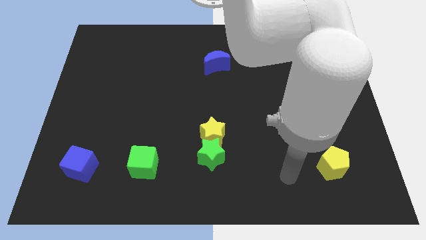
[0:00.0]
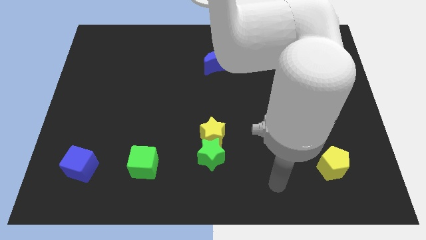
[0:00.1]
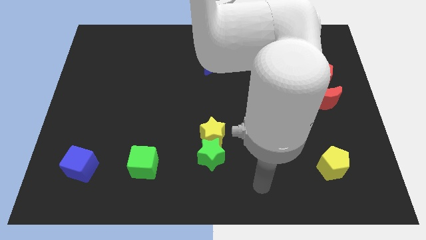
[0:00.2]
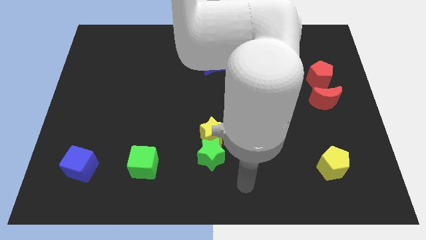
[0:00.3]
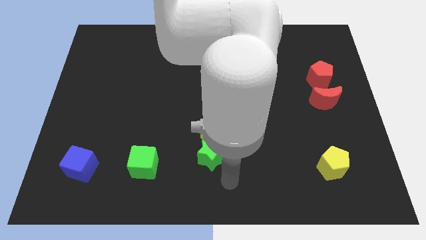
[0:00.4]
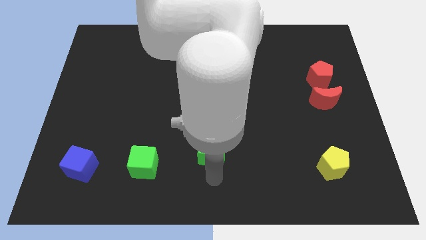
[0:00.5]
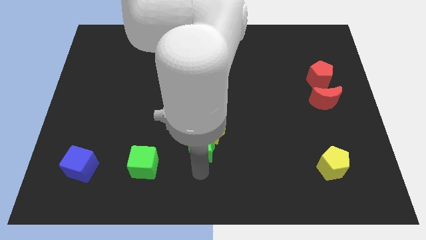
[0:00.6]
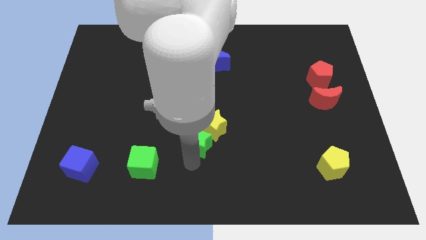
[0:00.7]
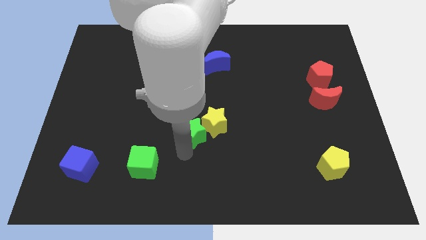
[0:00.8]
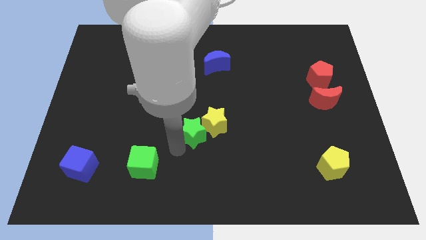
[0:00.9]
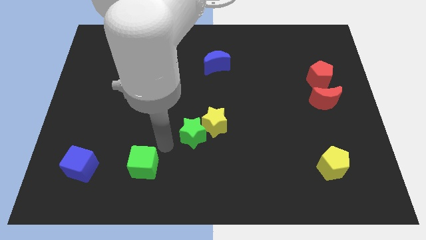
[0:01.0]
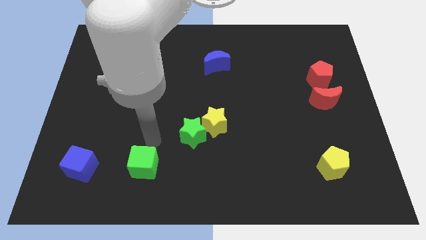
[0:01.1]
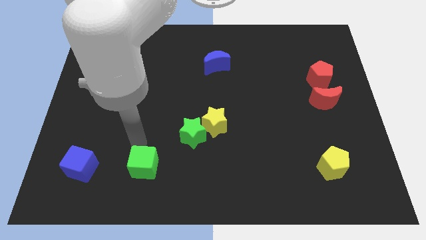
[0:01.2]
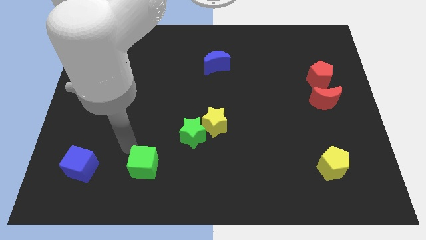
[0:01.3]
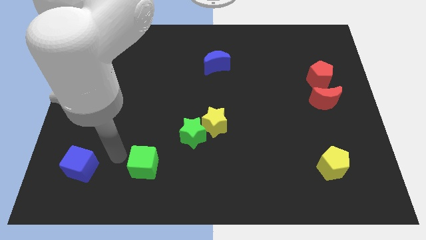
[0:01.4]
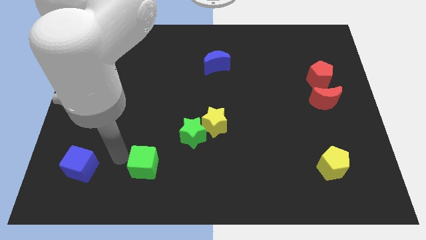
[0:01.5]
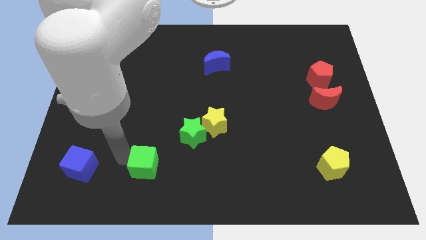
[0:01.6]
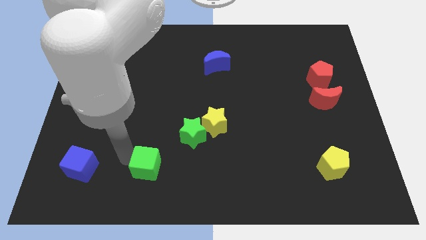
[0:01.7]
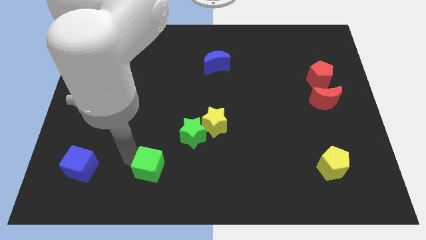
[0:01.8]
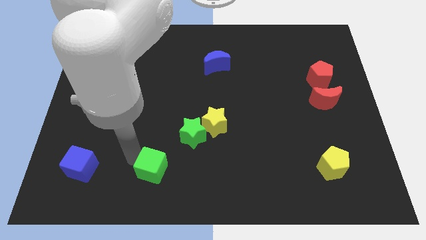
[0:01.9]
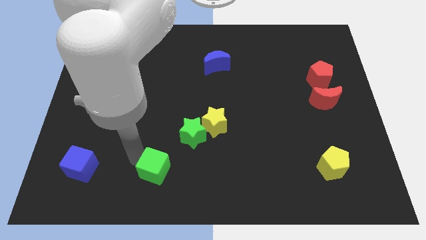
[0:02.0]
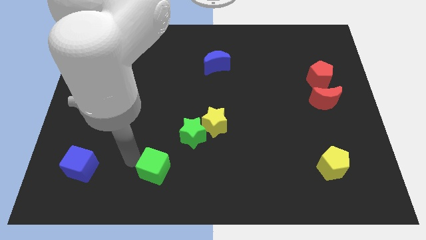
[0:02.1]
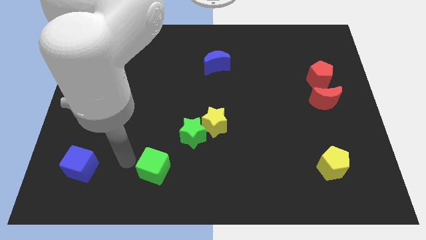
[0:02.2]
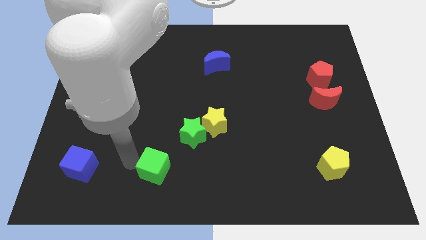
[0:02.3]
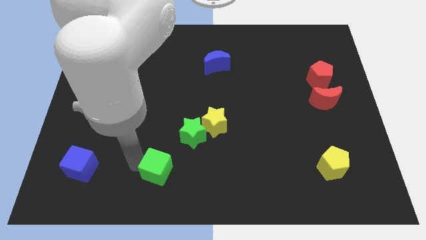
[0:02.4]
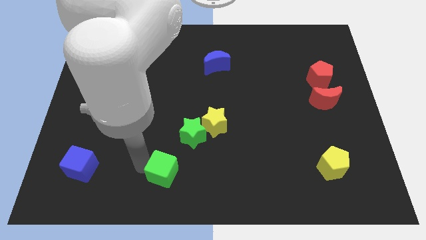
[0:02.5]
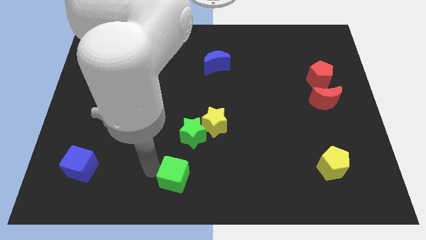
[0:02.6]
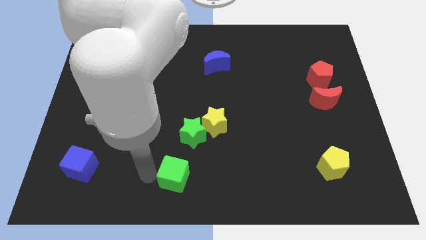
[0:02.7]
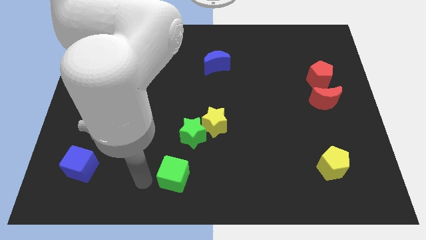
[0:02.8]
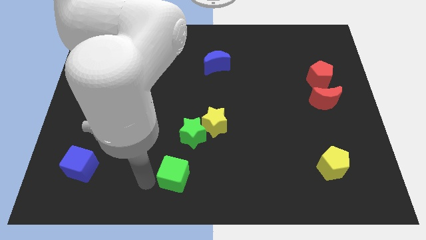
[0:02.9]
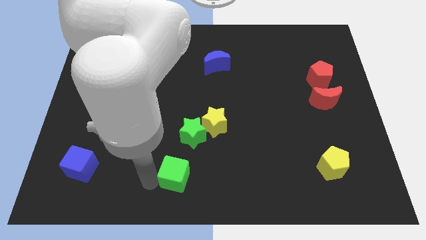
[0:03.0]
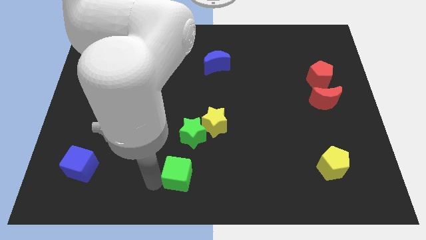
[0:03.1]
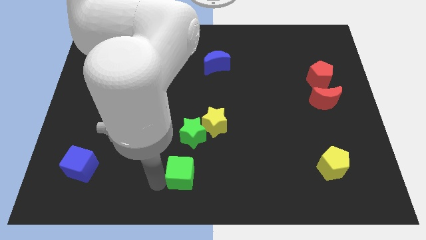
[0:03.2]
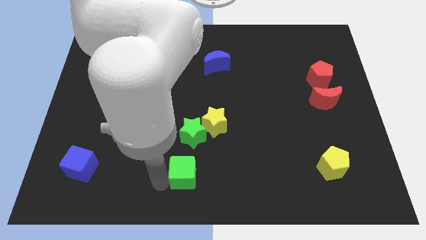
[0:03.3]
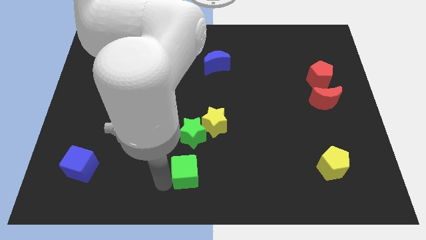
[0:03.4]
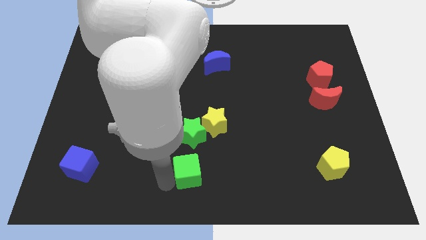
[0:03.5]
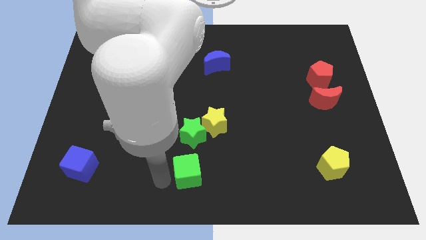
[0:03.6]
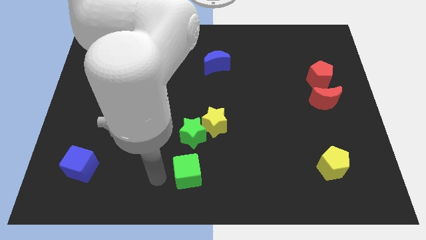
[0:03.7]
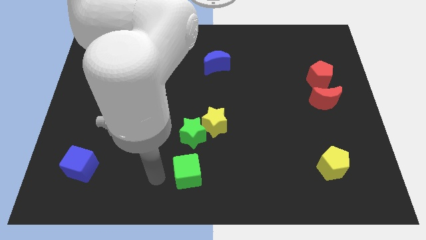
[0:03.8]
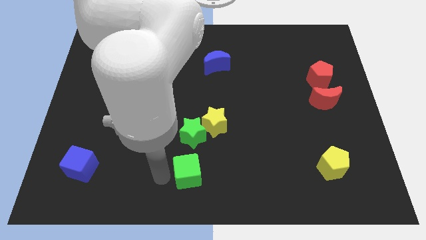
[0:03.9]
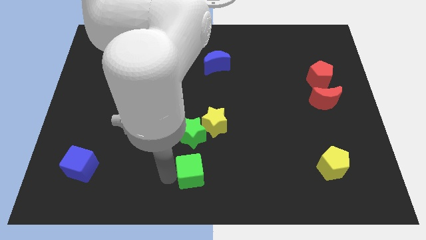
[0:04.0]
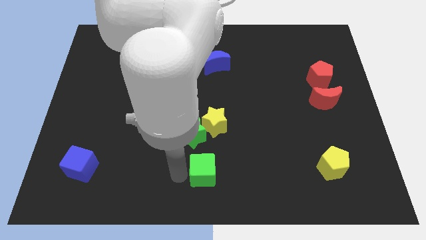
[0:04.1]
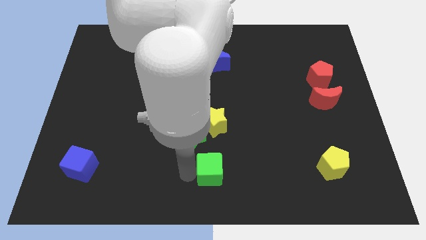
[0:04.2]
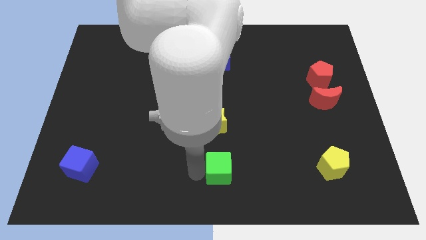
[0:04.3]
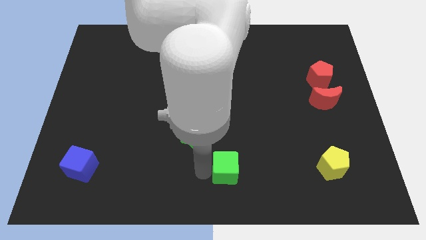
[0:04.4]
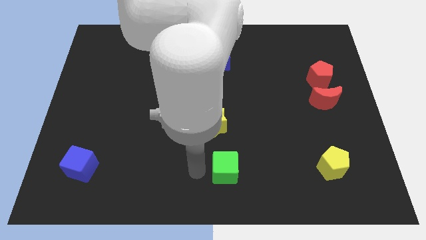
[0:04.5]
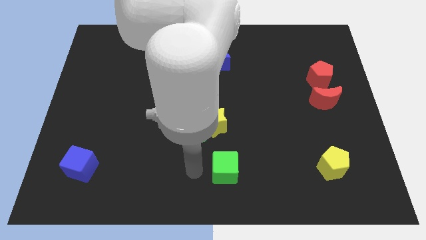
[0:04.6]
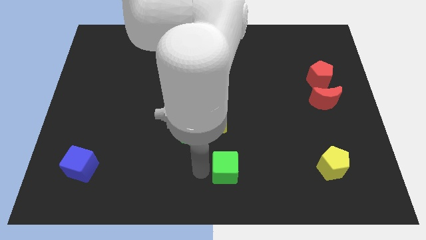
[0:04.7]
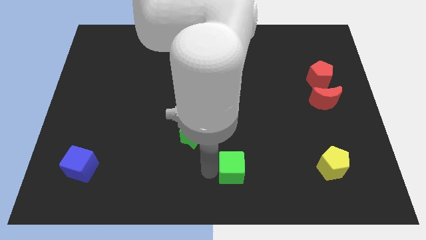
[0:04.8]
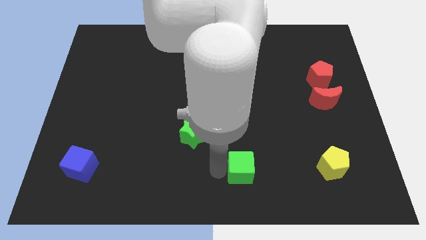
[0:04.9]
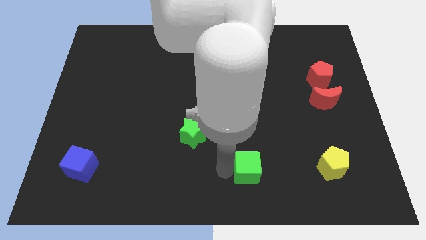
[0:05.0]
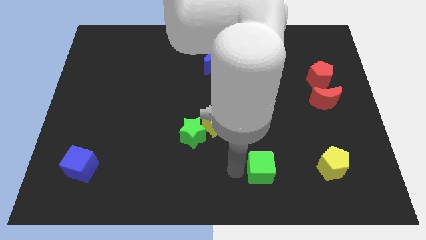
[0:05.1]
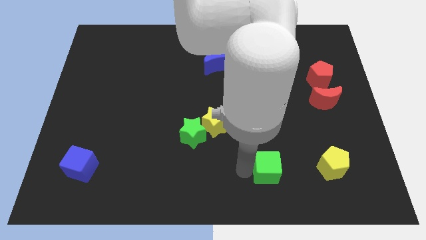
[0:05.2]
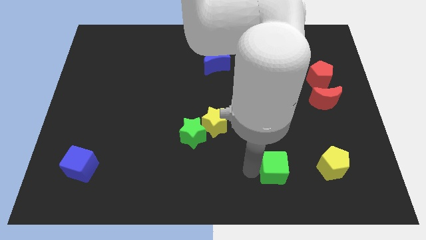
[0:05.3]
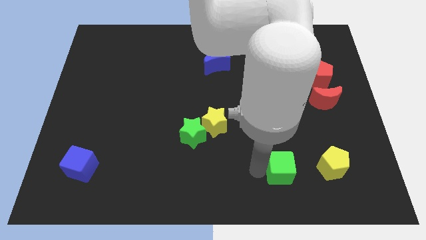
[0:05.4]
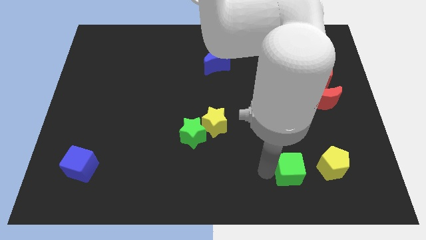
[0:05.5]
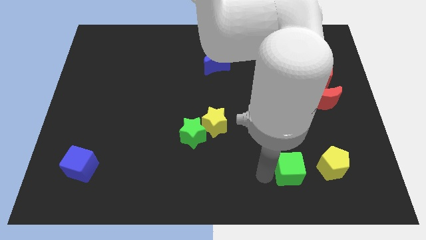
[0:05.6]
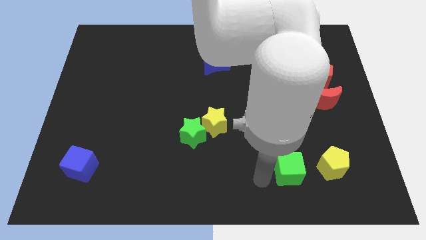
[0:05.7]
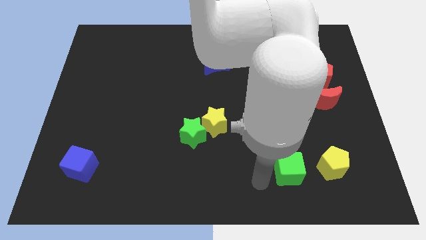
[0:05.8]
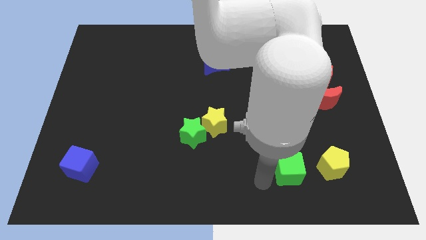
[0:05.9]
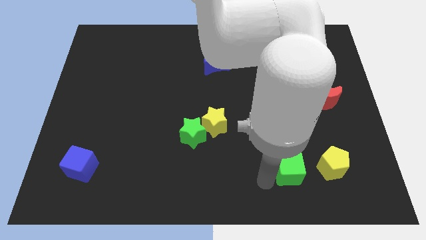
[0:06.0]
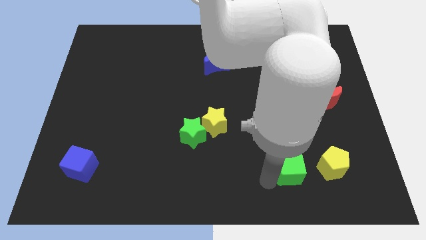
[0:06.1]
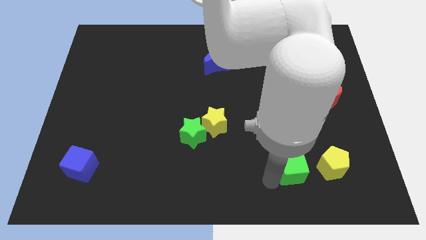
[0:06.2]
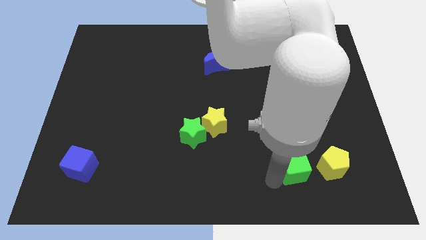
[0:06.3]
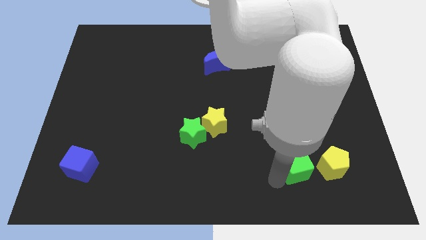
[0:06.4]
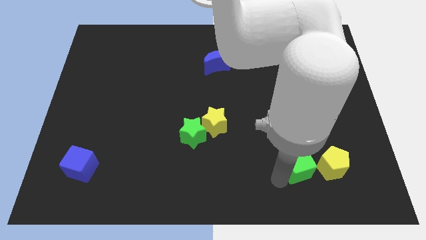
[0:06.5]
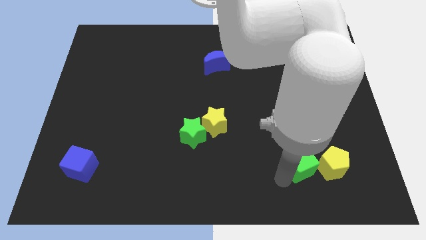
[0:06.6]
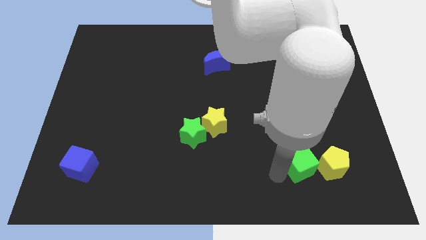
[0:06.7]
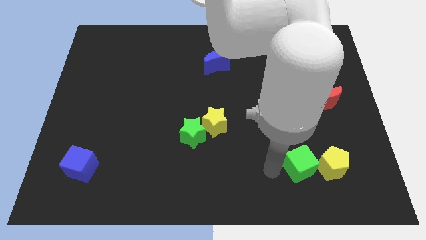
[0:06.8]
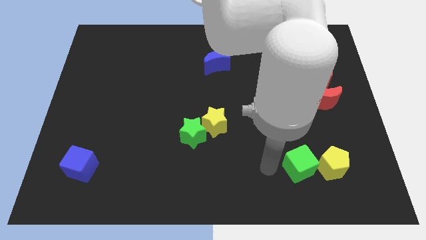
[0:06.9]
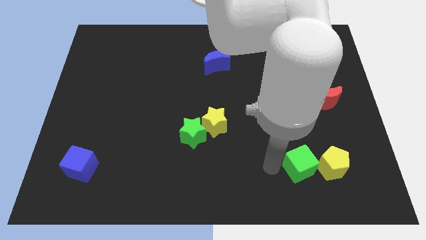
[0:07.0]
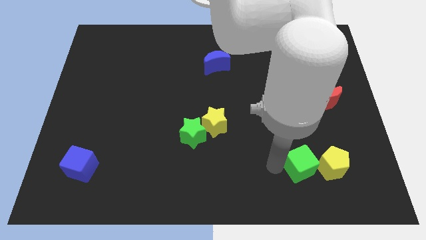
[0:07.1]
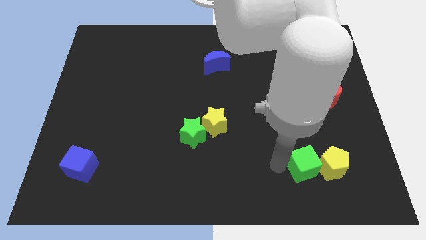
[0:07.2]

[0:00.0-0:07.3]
push the green cube to the yellow pentagon
